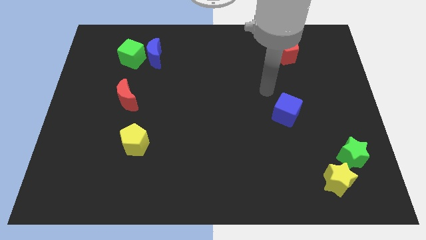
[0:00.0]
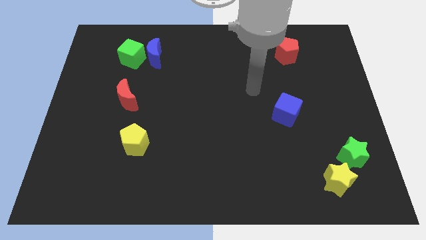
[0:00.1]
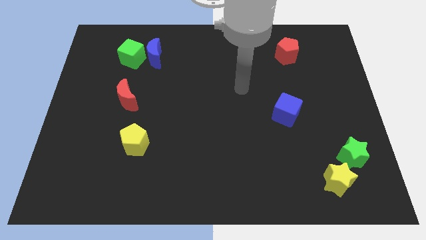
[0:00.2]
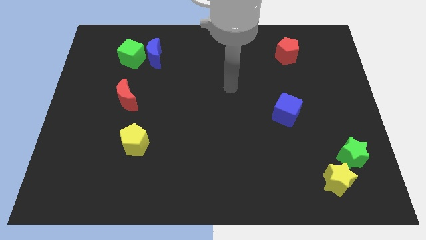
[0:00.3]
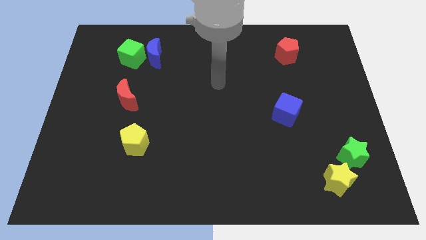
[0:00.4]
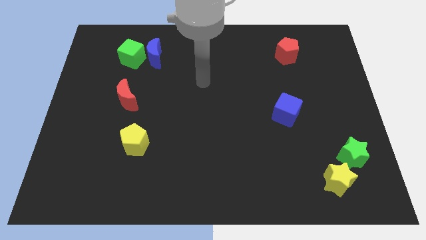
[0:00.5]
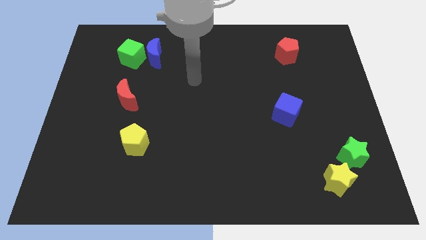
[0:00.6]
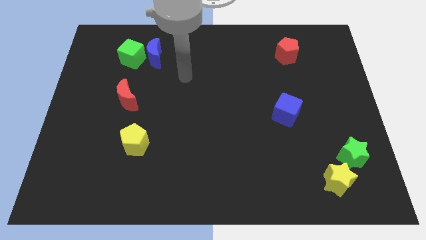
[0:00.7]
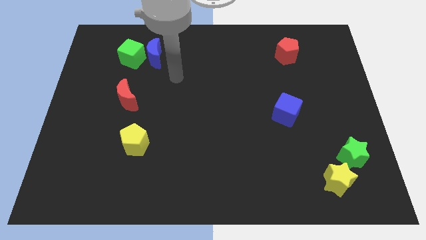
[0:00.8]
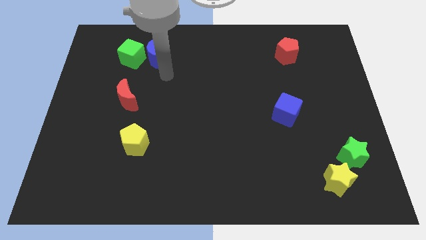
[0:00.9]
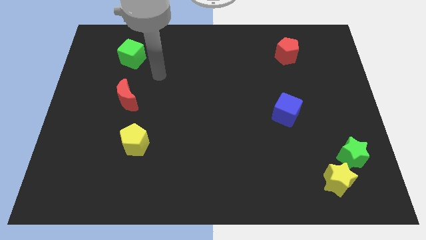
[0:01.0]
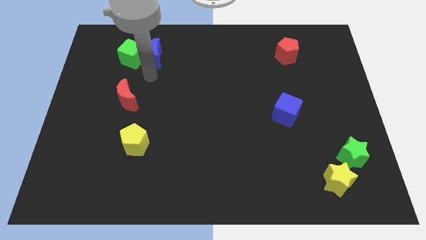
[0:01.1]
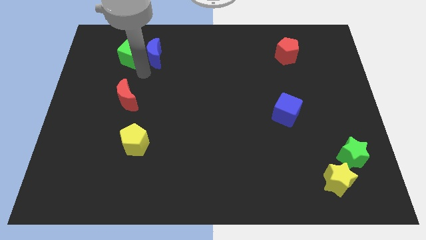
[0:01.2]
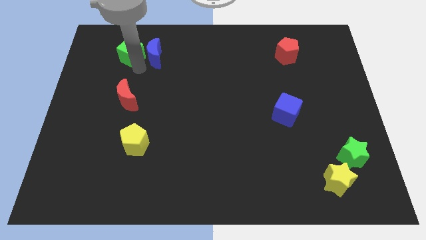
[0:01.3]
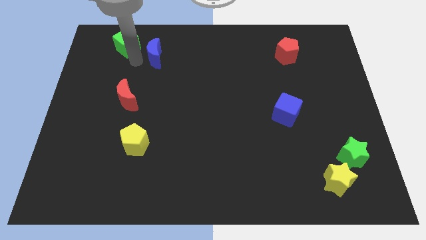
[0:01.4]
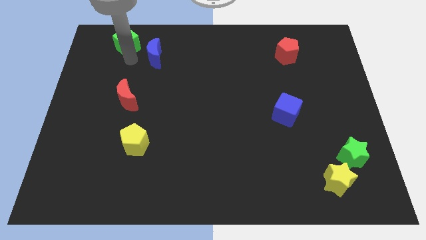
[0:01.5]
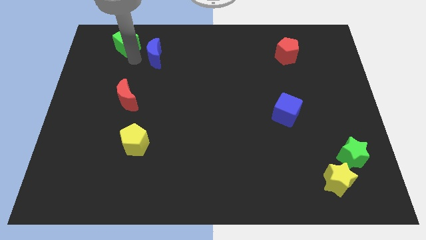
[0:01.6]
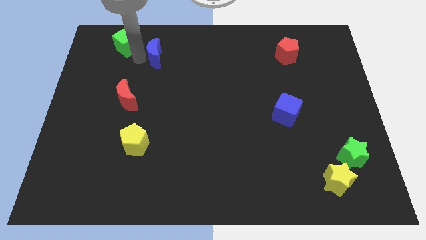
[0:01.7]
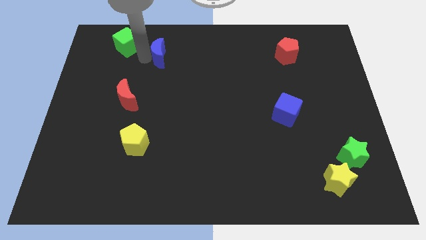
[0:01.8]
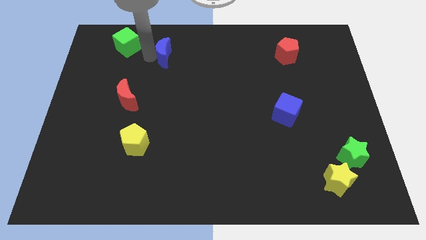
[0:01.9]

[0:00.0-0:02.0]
separate the blue moon from the green cube

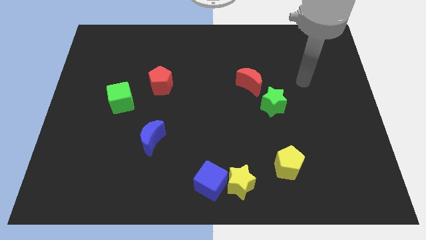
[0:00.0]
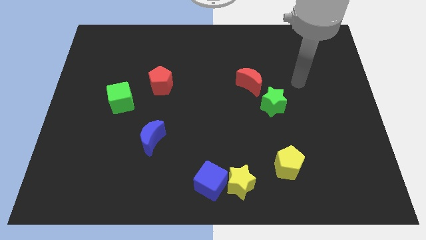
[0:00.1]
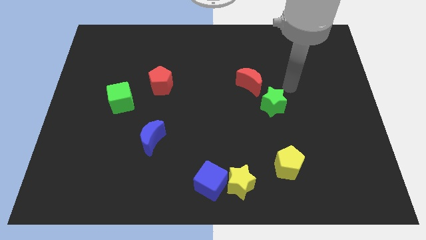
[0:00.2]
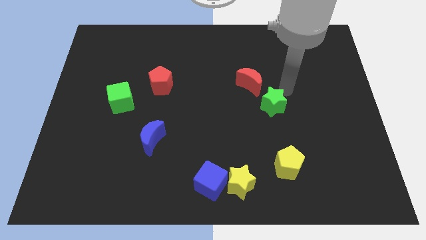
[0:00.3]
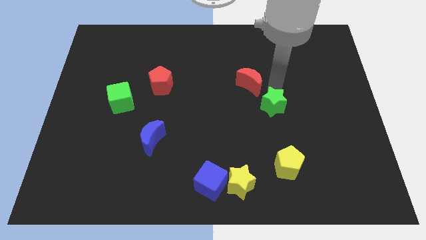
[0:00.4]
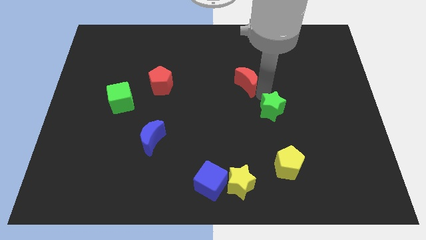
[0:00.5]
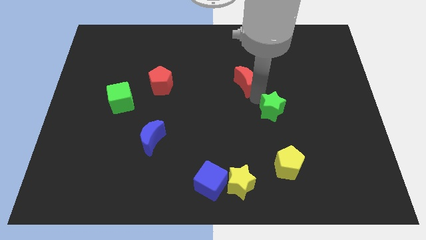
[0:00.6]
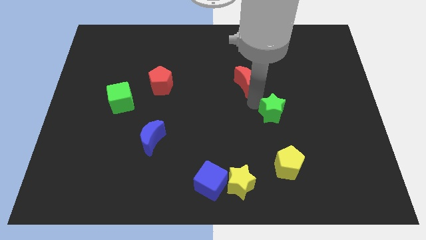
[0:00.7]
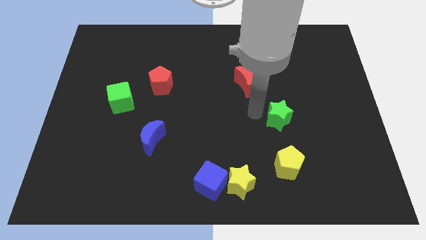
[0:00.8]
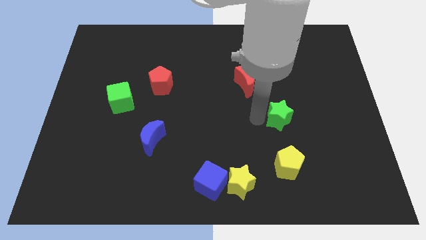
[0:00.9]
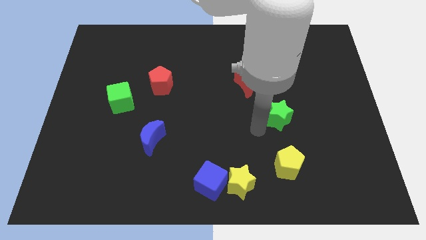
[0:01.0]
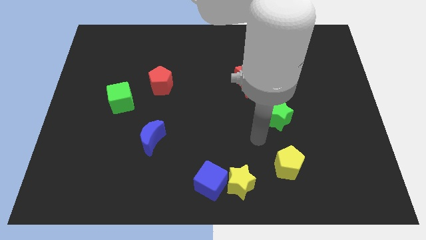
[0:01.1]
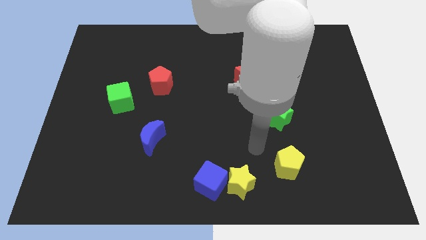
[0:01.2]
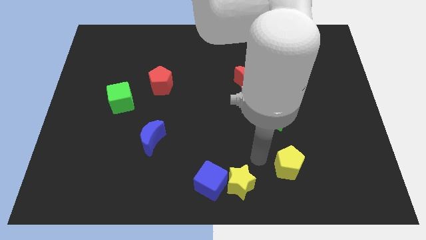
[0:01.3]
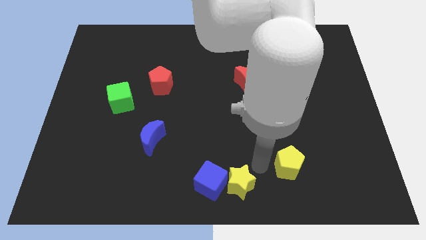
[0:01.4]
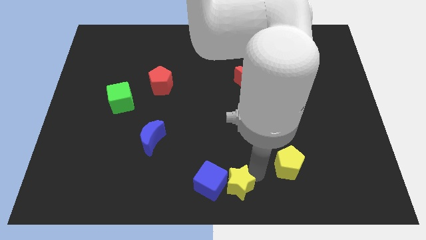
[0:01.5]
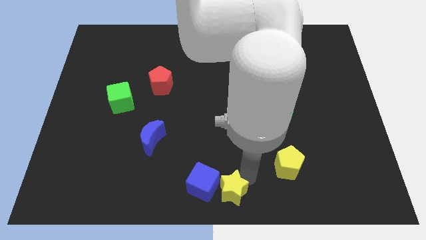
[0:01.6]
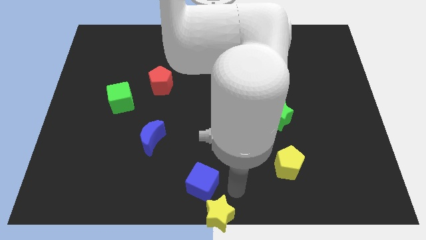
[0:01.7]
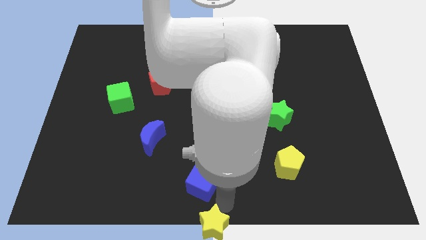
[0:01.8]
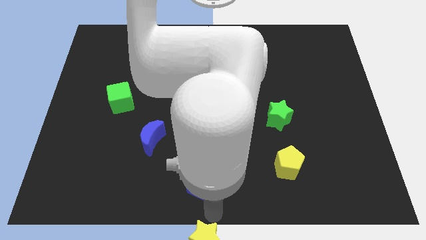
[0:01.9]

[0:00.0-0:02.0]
move the blue cube away from the yellow star

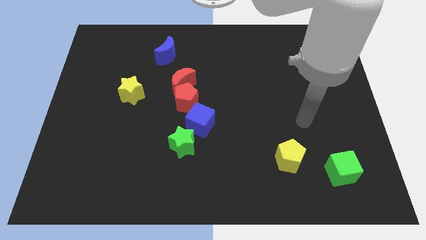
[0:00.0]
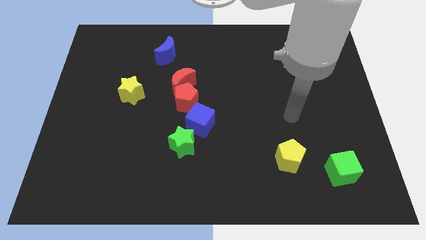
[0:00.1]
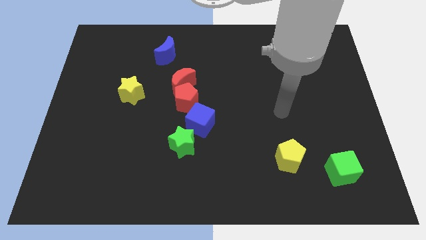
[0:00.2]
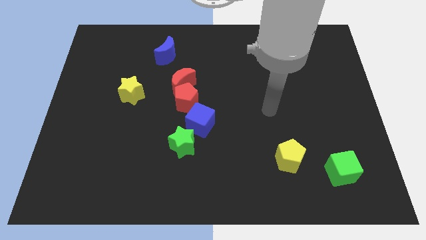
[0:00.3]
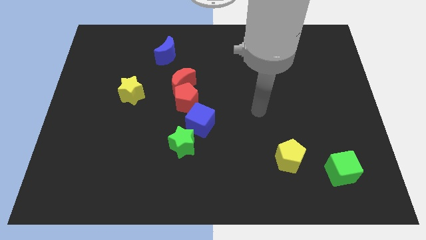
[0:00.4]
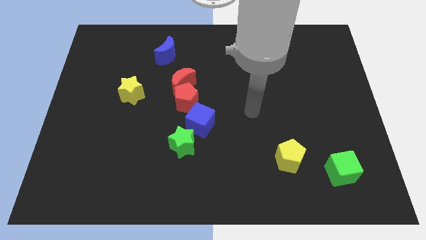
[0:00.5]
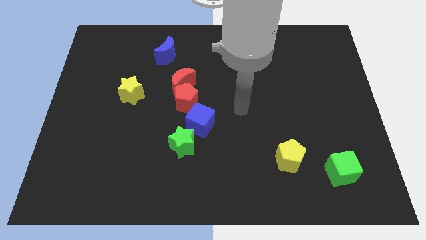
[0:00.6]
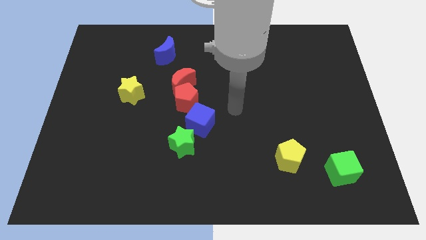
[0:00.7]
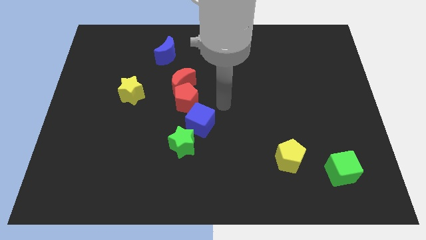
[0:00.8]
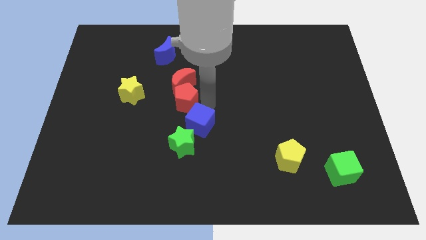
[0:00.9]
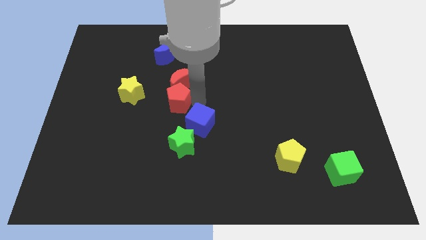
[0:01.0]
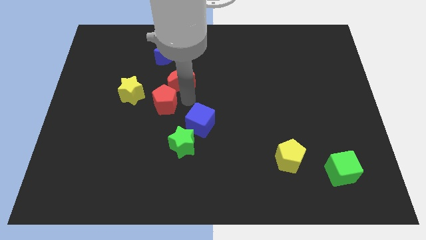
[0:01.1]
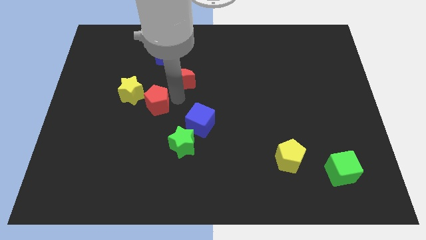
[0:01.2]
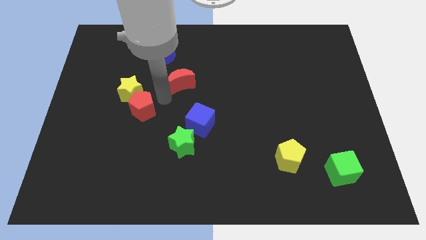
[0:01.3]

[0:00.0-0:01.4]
move the red moon away from the red pentagon

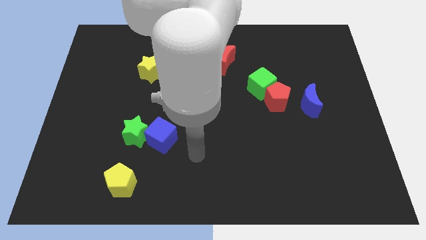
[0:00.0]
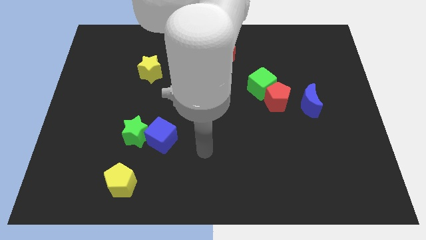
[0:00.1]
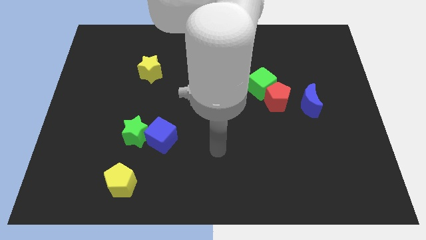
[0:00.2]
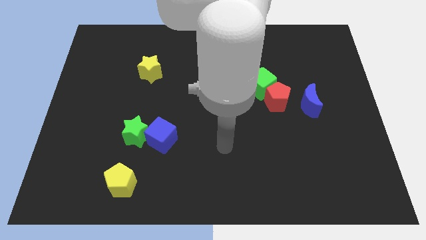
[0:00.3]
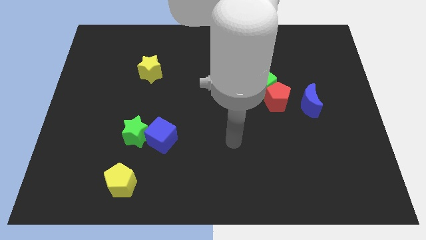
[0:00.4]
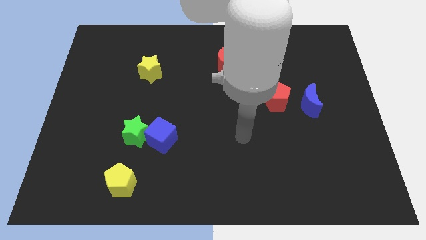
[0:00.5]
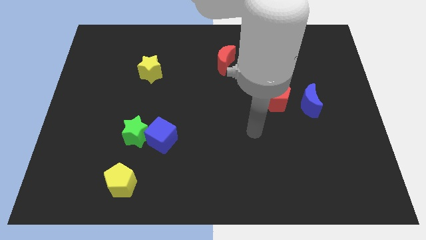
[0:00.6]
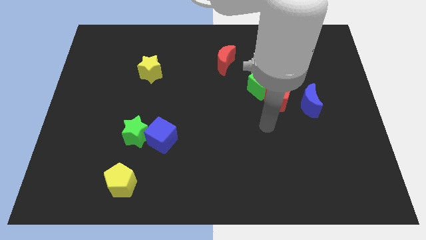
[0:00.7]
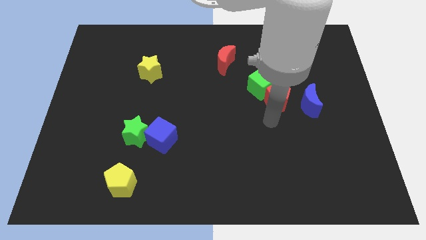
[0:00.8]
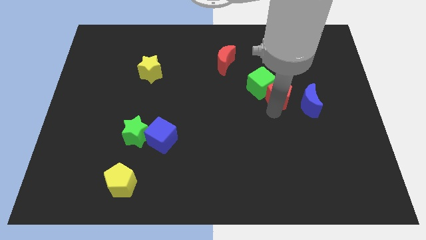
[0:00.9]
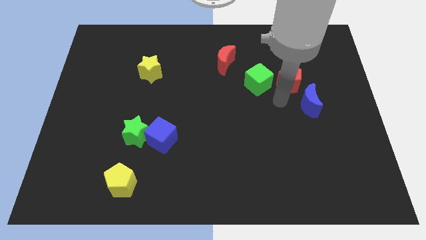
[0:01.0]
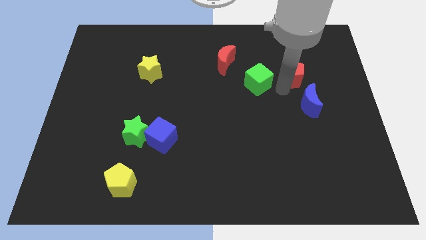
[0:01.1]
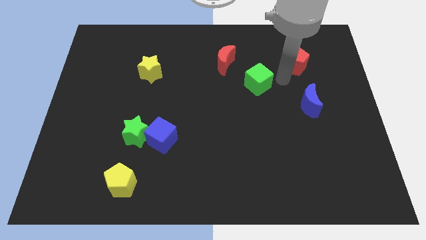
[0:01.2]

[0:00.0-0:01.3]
move the green cube away from the red pentagon

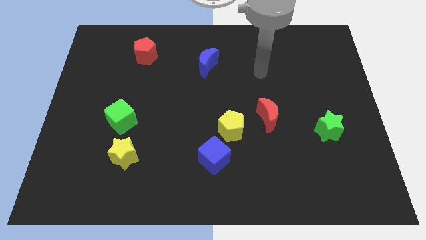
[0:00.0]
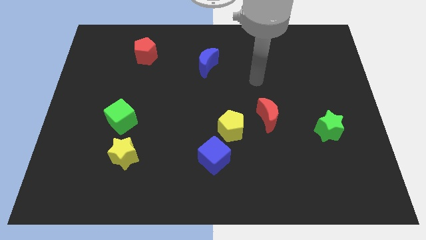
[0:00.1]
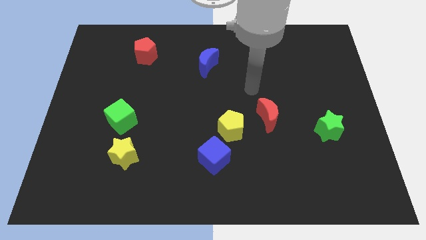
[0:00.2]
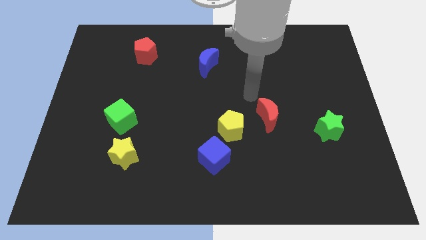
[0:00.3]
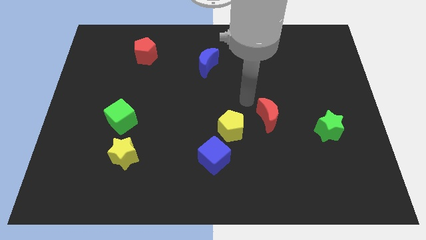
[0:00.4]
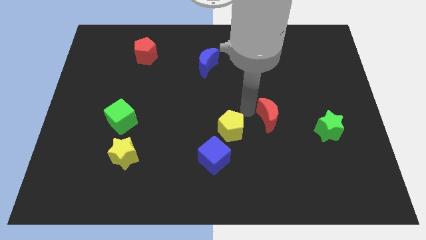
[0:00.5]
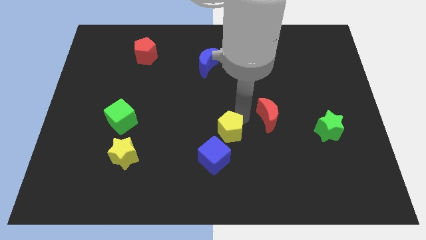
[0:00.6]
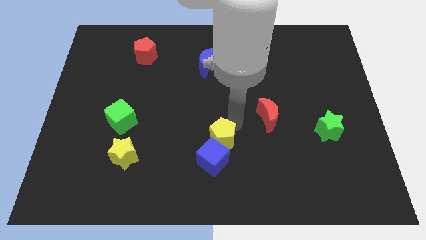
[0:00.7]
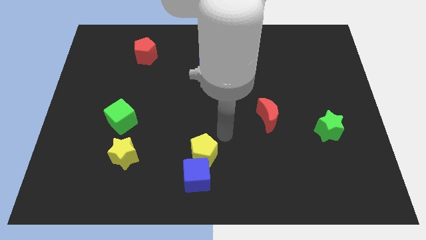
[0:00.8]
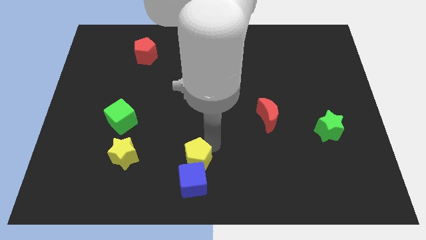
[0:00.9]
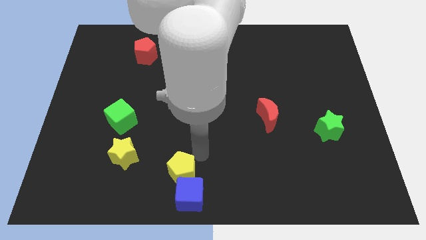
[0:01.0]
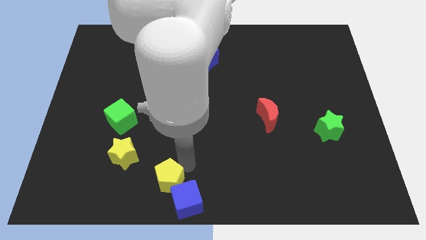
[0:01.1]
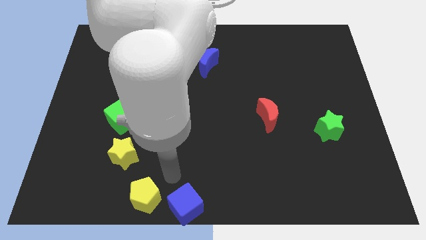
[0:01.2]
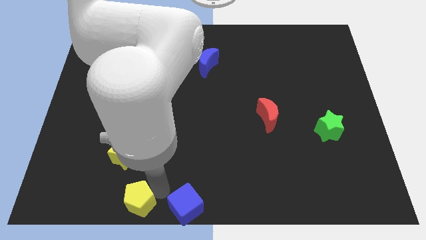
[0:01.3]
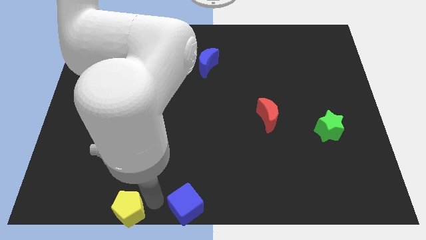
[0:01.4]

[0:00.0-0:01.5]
pull the blue cube apart from the yellow pentagon

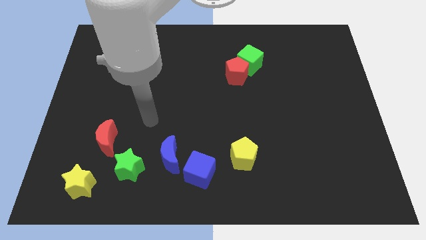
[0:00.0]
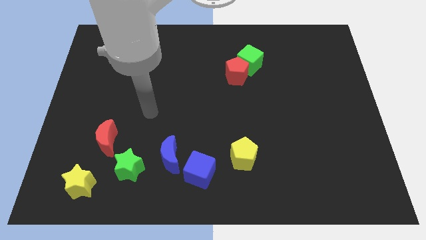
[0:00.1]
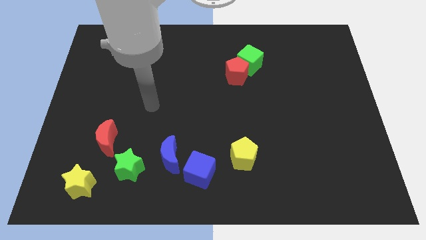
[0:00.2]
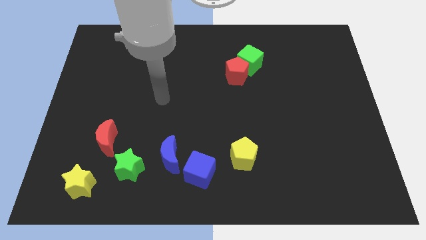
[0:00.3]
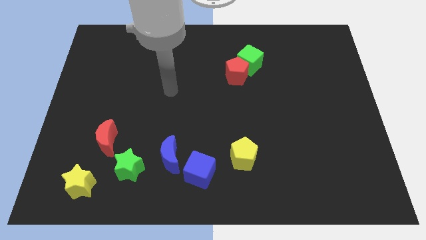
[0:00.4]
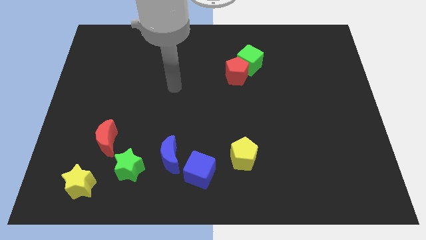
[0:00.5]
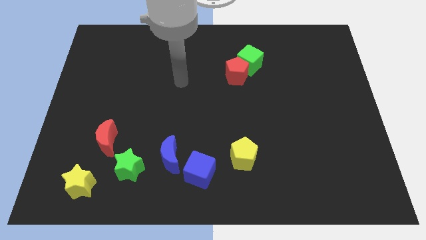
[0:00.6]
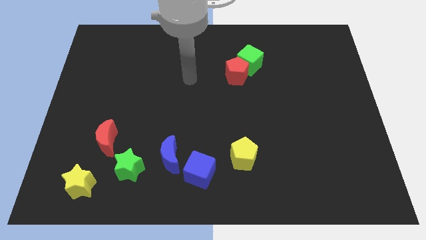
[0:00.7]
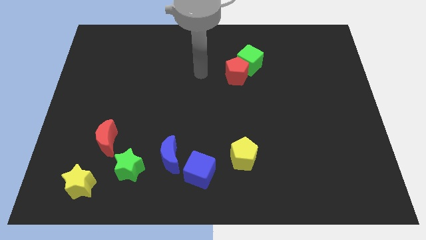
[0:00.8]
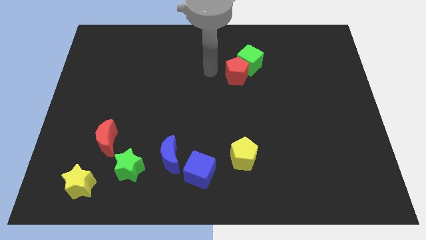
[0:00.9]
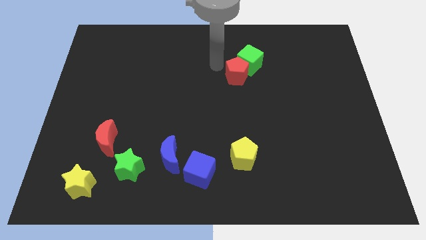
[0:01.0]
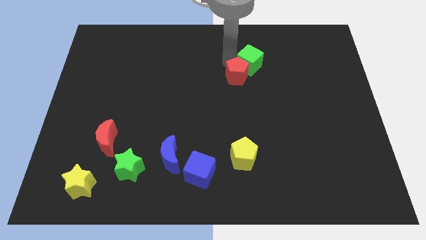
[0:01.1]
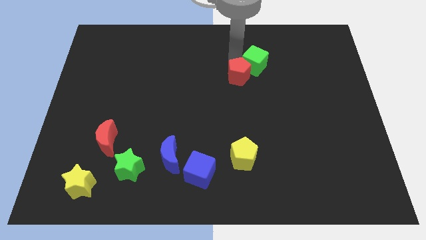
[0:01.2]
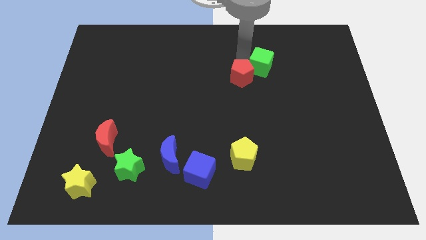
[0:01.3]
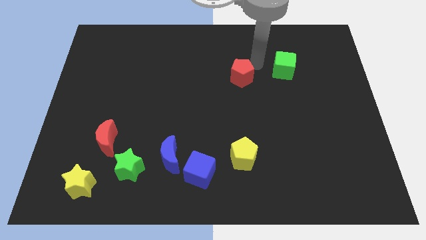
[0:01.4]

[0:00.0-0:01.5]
move the red pentagon away from the green cube
